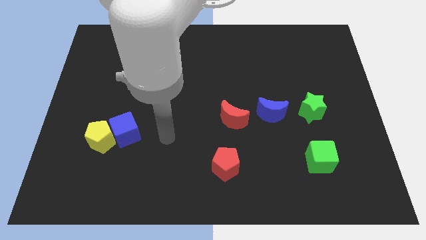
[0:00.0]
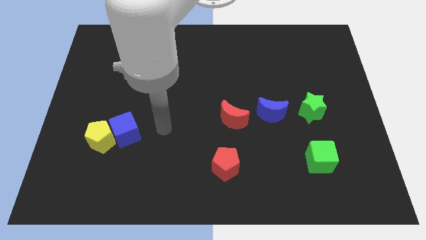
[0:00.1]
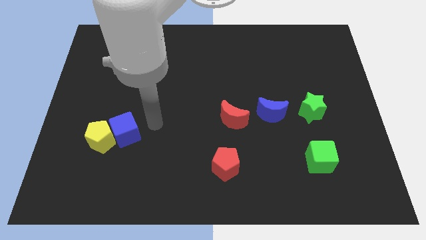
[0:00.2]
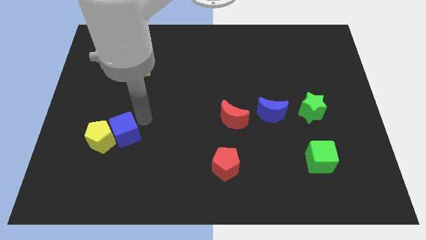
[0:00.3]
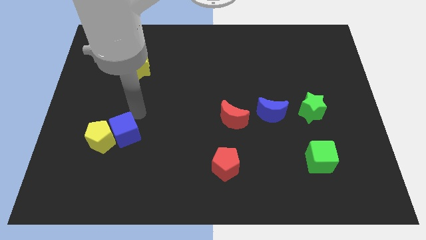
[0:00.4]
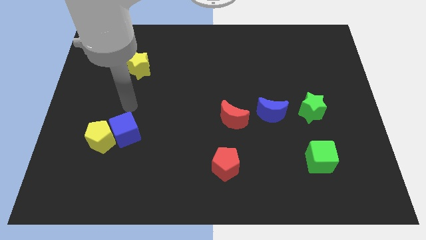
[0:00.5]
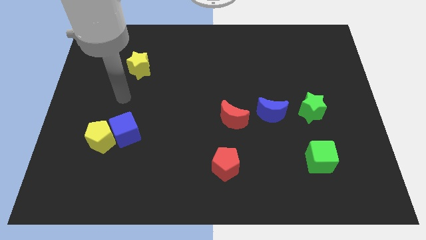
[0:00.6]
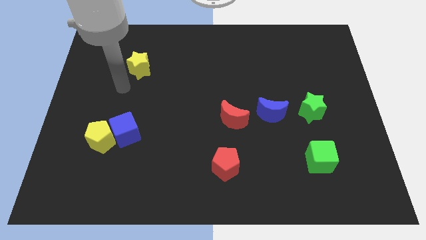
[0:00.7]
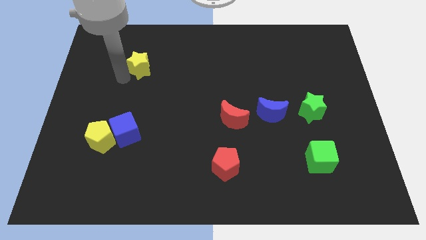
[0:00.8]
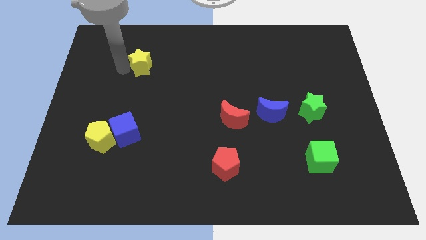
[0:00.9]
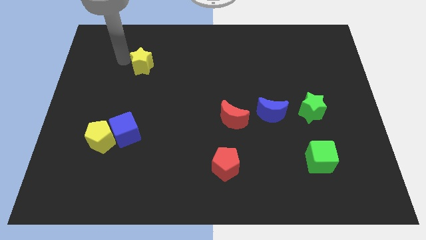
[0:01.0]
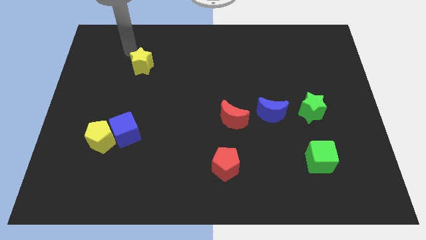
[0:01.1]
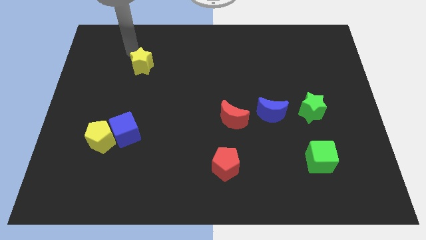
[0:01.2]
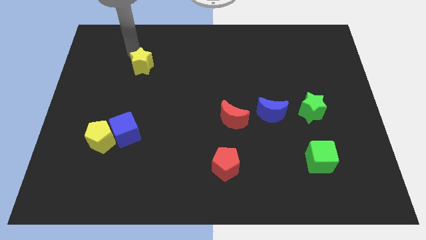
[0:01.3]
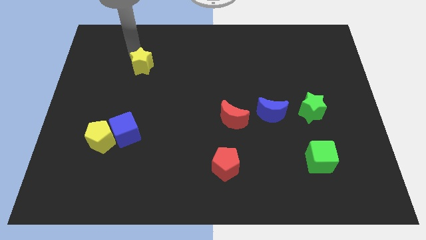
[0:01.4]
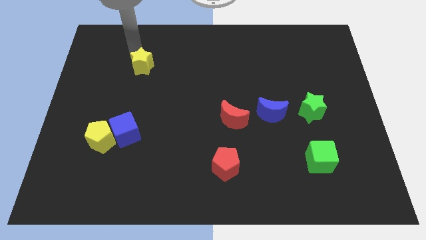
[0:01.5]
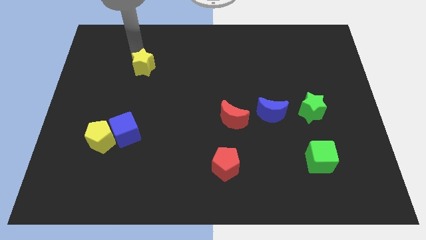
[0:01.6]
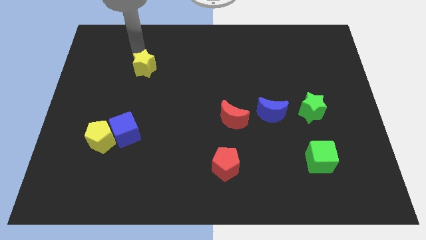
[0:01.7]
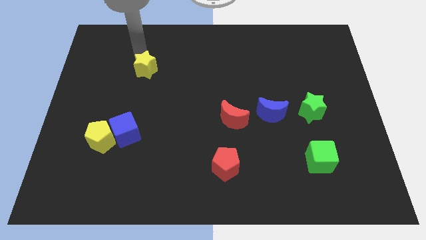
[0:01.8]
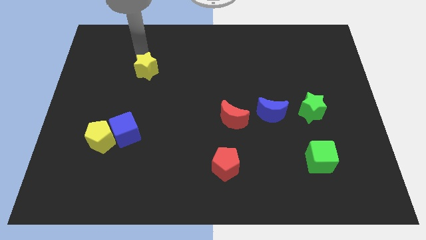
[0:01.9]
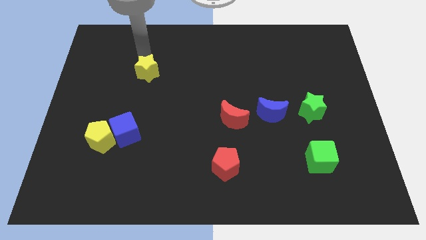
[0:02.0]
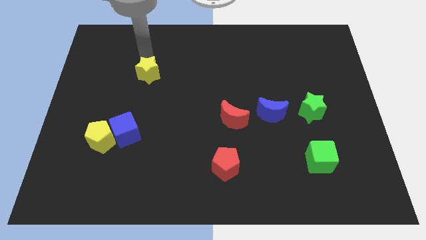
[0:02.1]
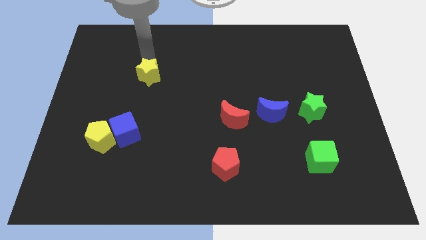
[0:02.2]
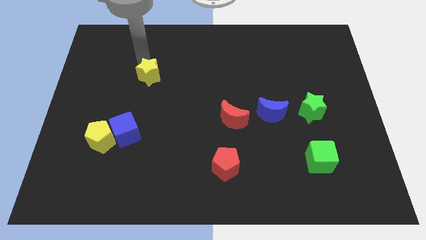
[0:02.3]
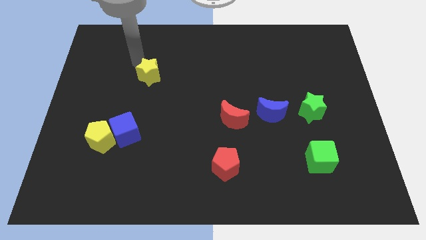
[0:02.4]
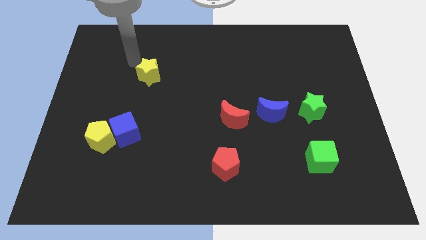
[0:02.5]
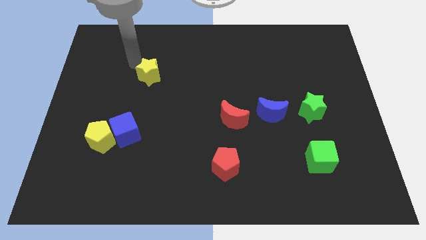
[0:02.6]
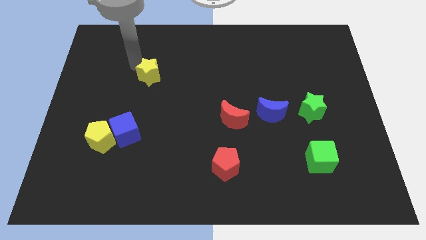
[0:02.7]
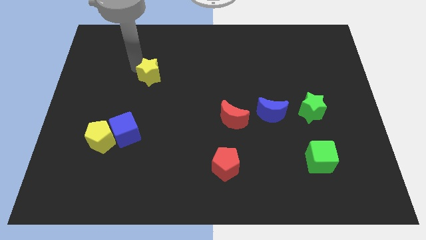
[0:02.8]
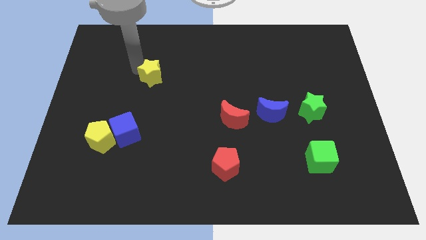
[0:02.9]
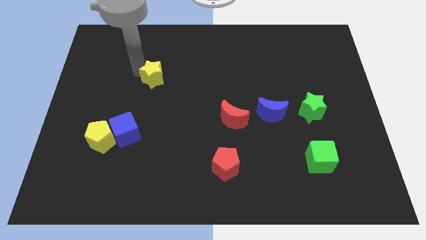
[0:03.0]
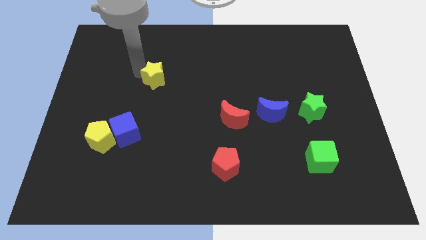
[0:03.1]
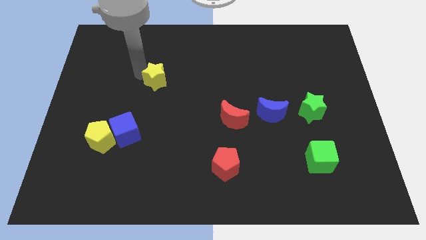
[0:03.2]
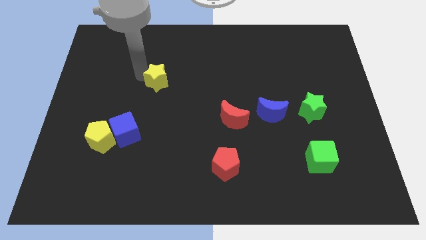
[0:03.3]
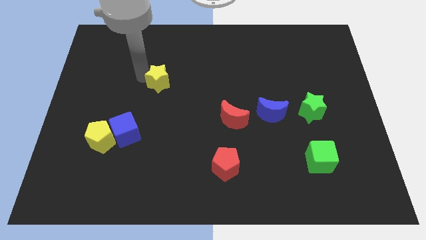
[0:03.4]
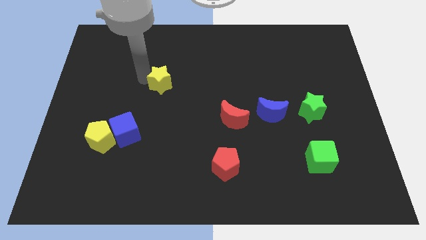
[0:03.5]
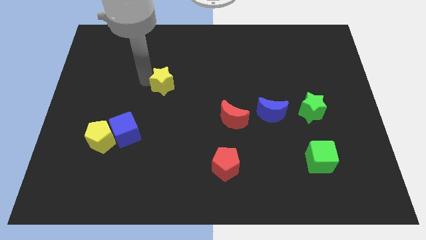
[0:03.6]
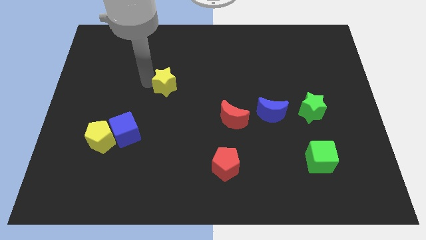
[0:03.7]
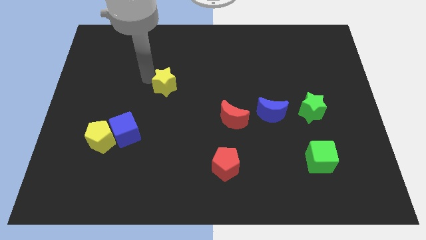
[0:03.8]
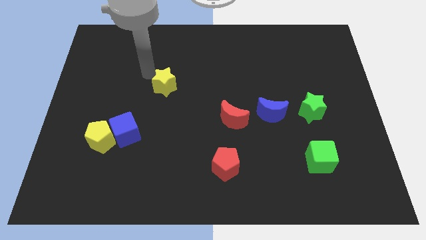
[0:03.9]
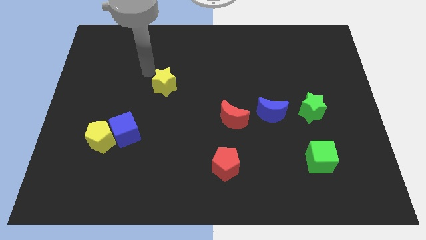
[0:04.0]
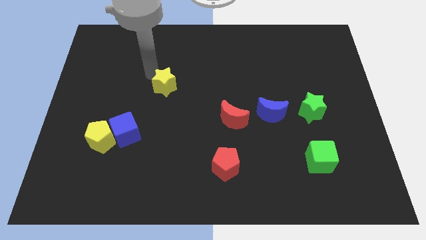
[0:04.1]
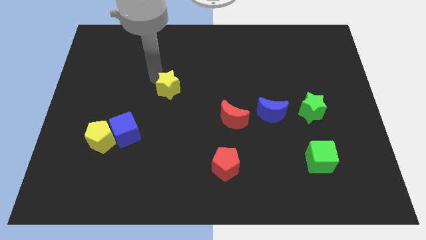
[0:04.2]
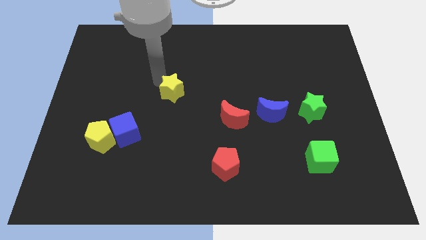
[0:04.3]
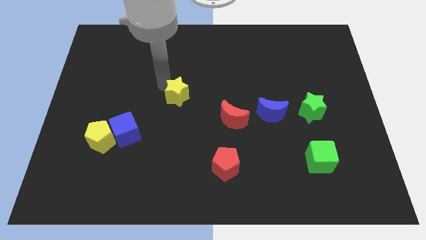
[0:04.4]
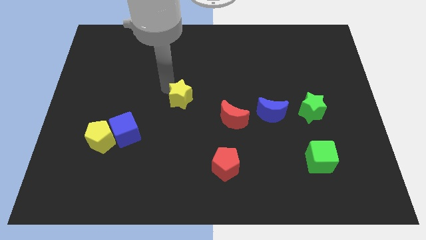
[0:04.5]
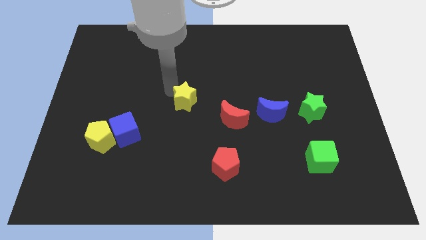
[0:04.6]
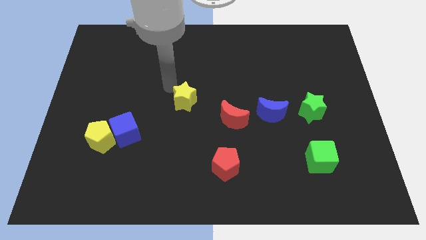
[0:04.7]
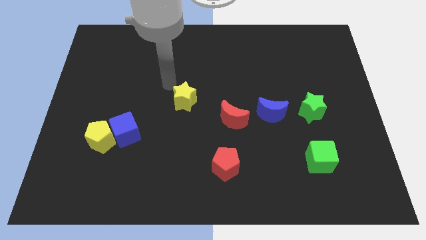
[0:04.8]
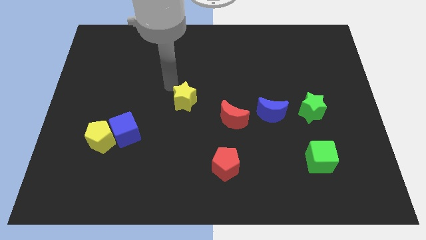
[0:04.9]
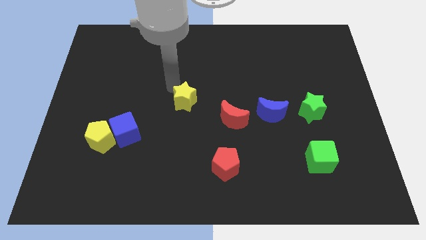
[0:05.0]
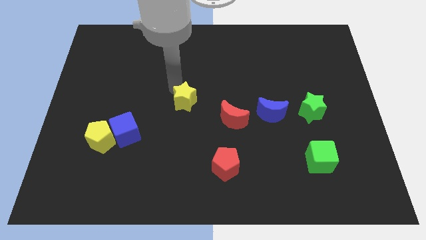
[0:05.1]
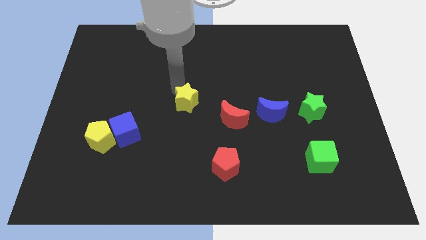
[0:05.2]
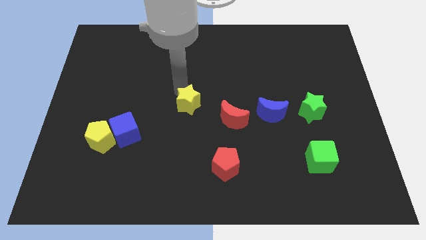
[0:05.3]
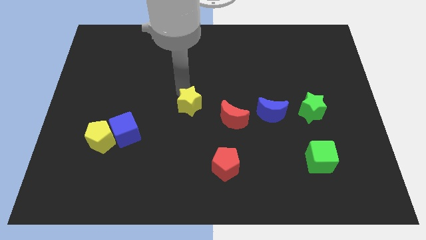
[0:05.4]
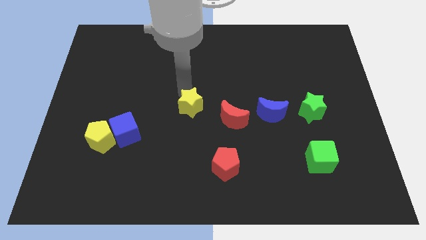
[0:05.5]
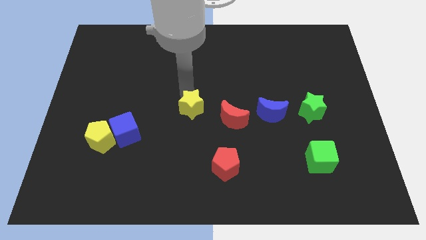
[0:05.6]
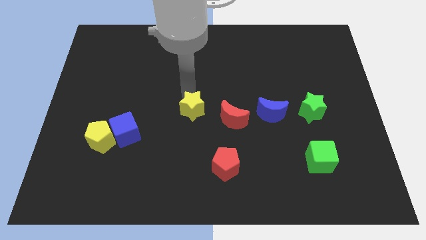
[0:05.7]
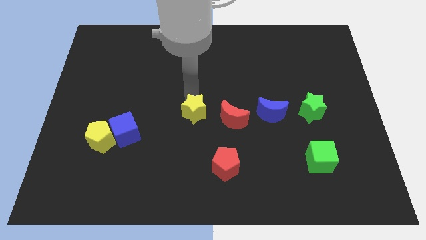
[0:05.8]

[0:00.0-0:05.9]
move the yellow star down and then right

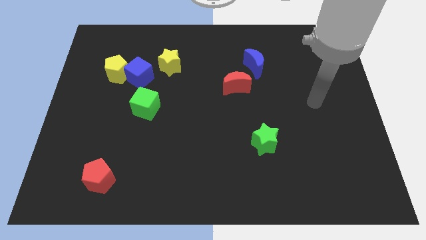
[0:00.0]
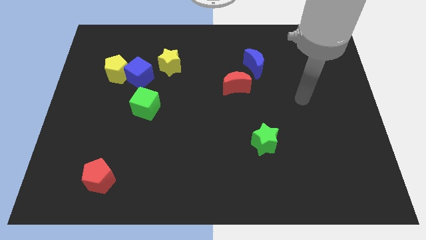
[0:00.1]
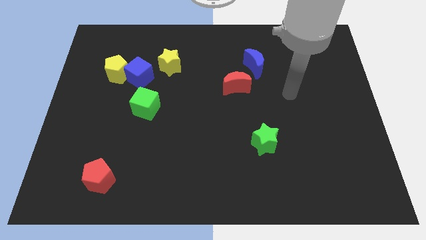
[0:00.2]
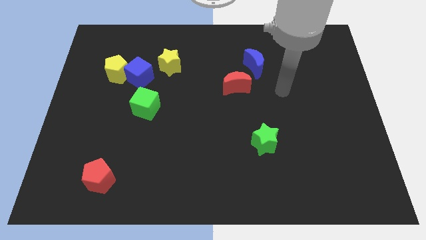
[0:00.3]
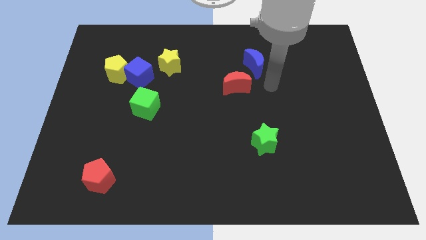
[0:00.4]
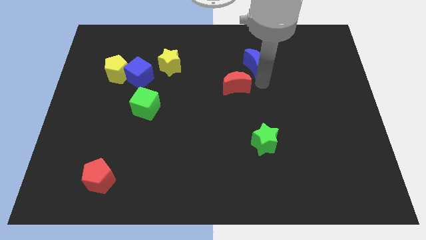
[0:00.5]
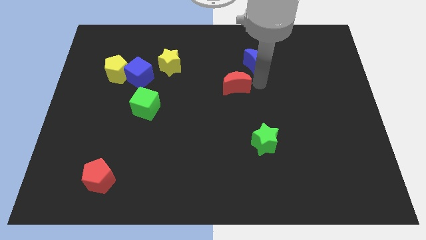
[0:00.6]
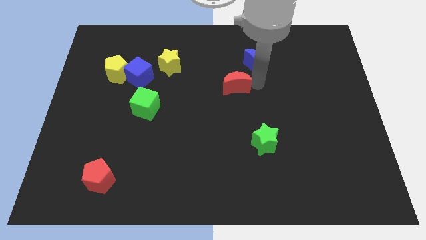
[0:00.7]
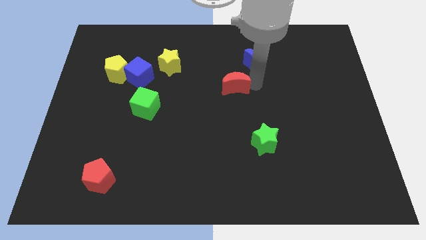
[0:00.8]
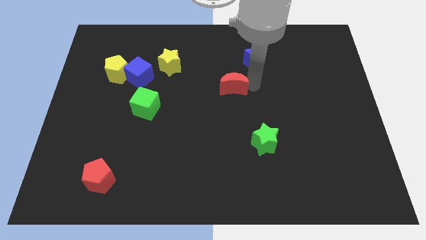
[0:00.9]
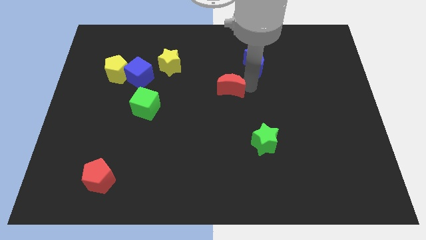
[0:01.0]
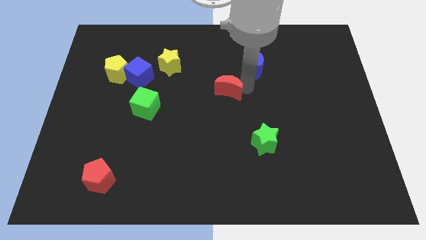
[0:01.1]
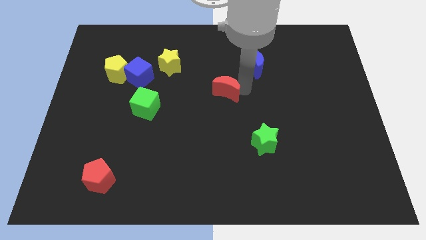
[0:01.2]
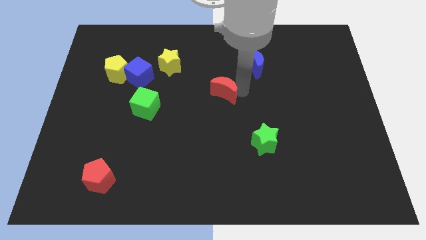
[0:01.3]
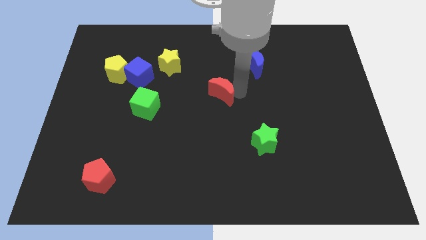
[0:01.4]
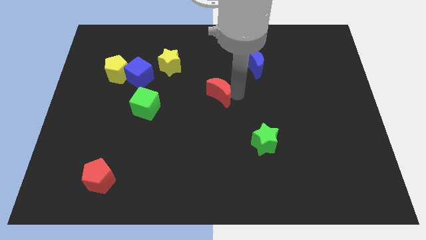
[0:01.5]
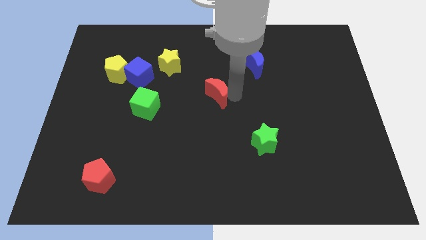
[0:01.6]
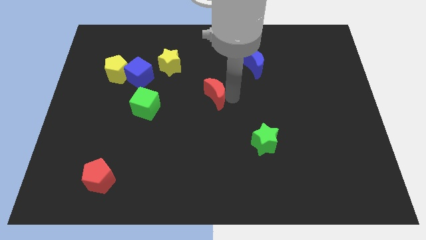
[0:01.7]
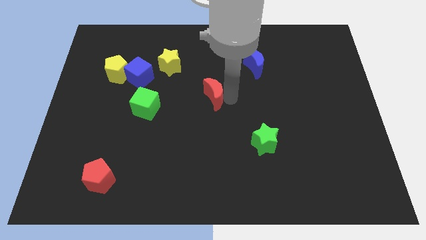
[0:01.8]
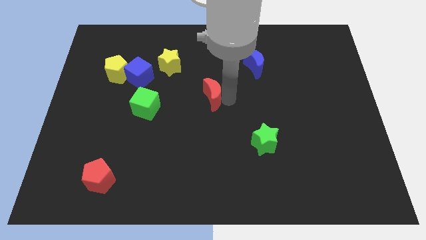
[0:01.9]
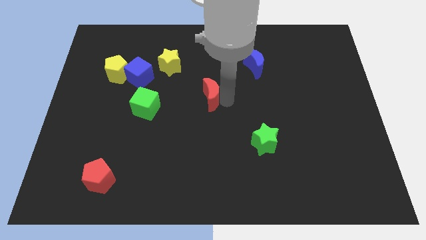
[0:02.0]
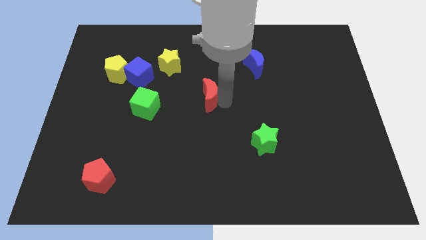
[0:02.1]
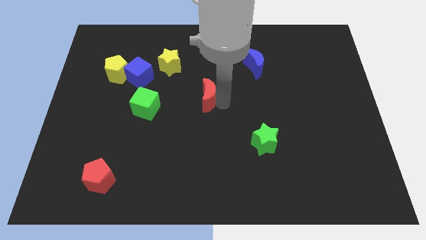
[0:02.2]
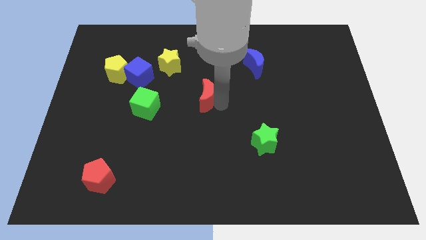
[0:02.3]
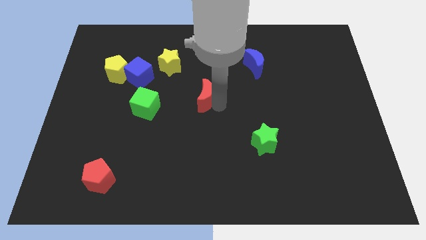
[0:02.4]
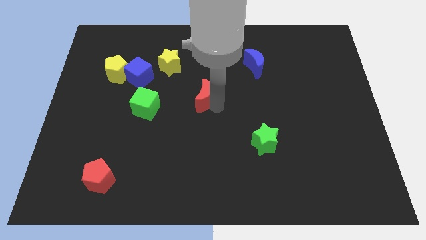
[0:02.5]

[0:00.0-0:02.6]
slightly push the red moon left
